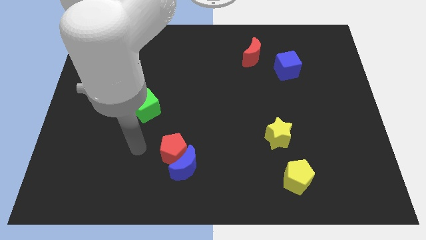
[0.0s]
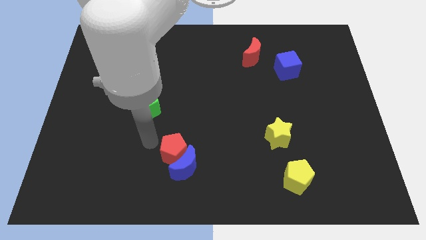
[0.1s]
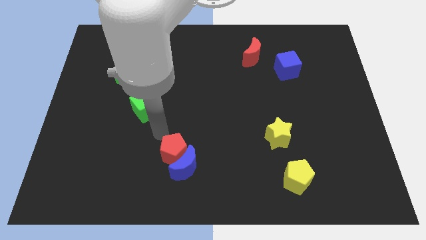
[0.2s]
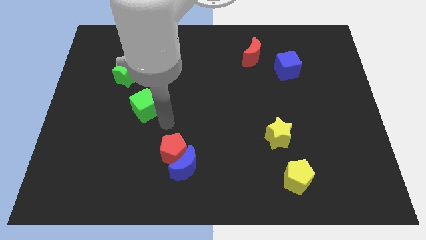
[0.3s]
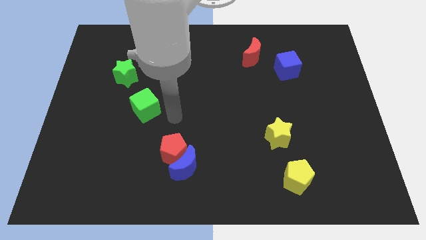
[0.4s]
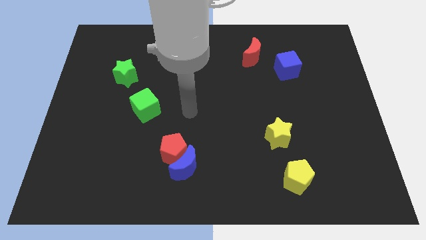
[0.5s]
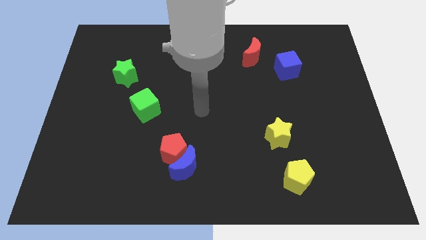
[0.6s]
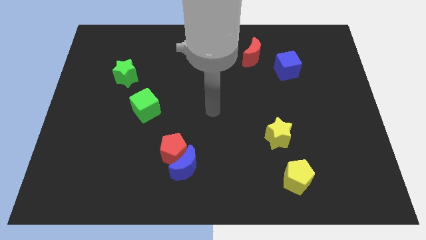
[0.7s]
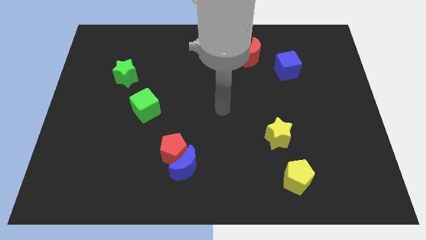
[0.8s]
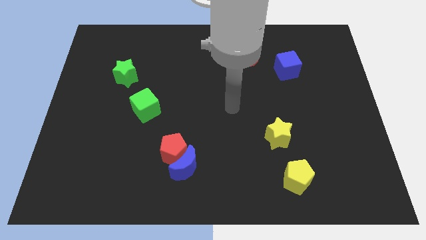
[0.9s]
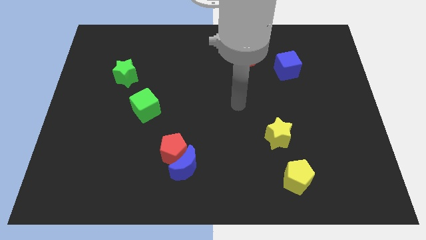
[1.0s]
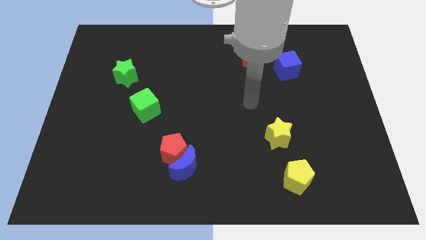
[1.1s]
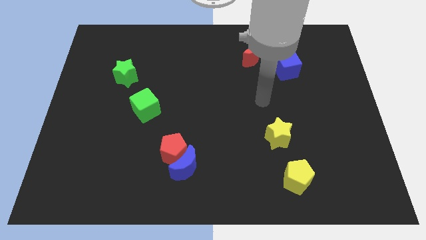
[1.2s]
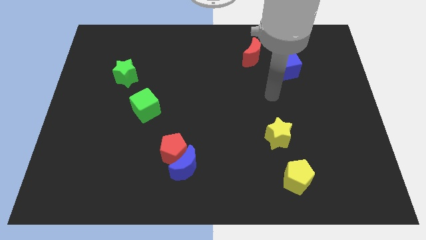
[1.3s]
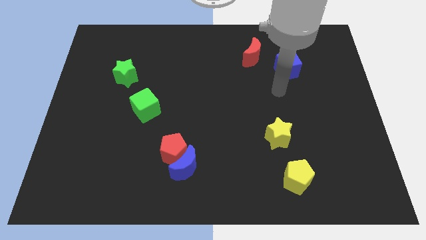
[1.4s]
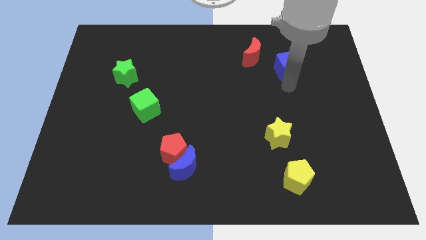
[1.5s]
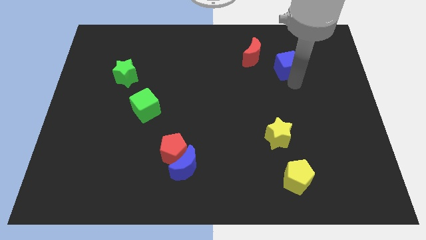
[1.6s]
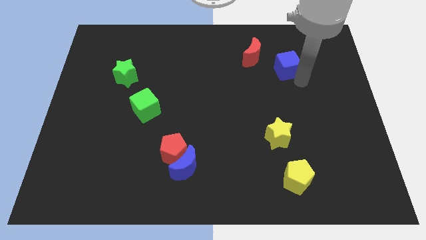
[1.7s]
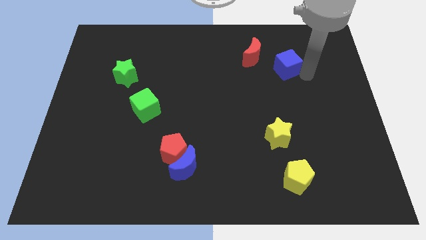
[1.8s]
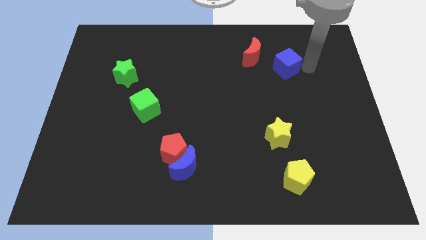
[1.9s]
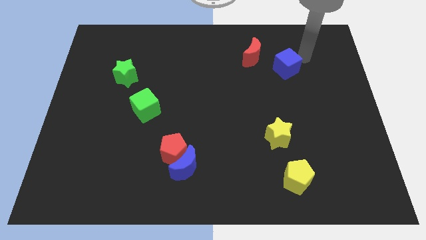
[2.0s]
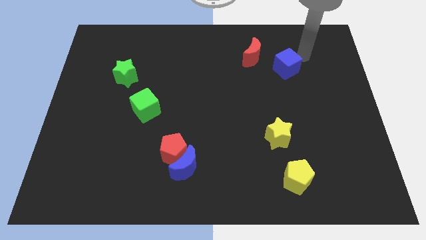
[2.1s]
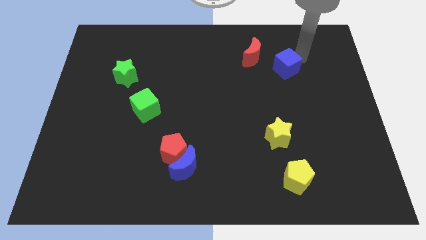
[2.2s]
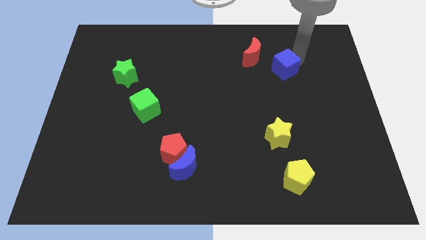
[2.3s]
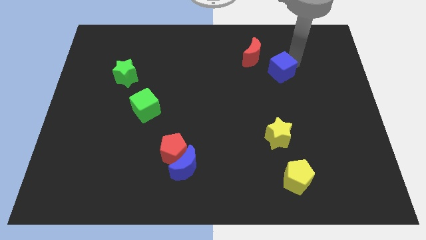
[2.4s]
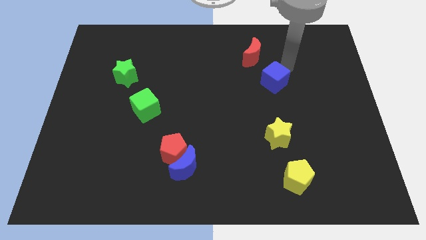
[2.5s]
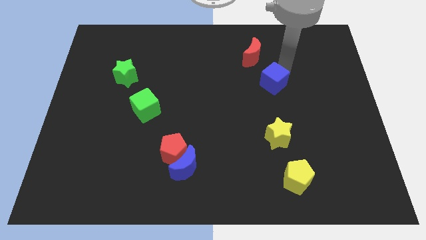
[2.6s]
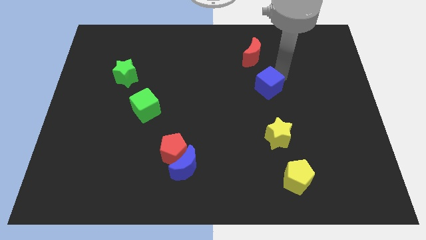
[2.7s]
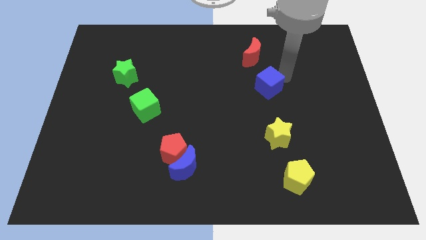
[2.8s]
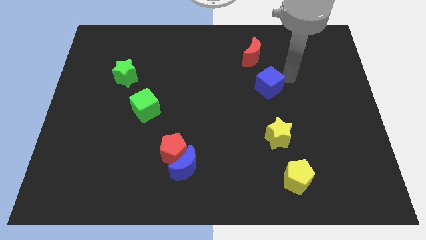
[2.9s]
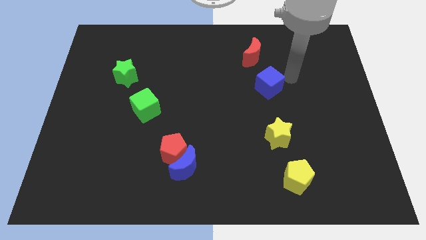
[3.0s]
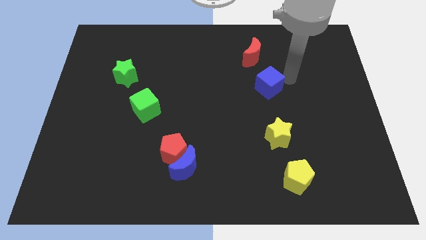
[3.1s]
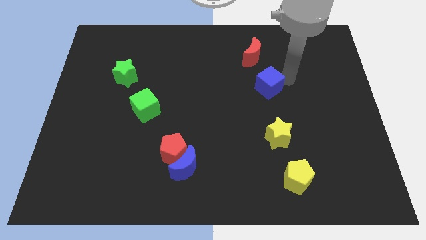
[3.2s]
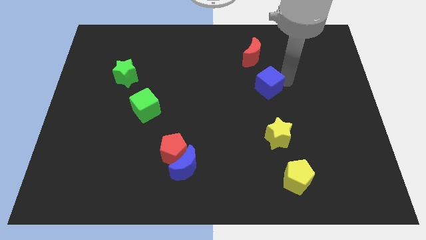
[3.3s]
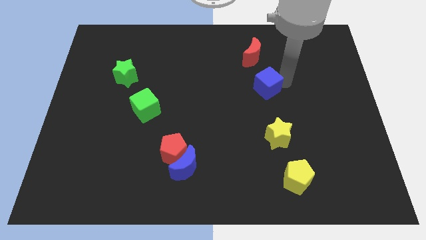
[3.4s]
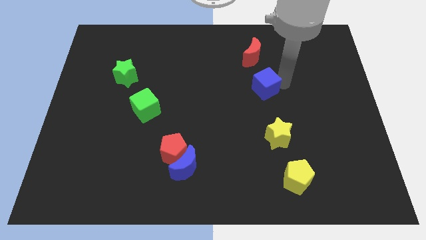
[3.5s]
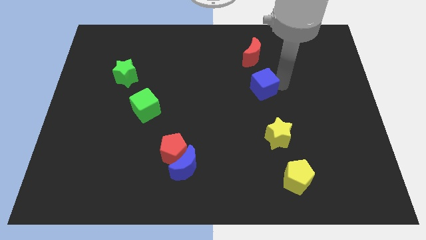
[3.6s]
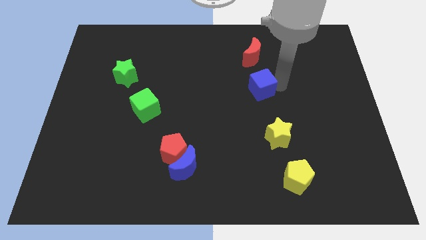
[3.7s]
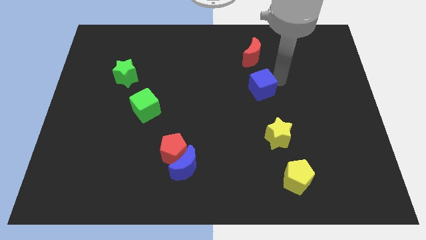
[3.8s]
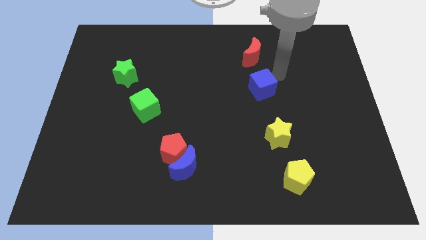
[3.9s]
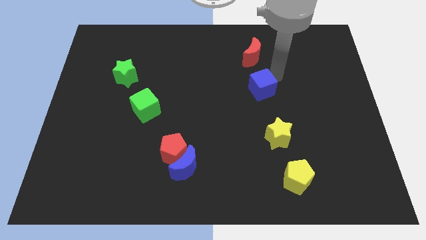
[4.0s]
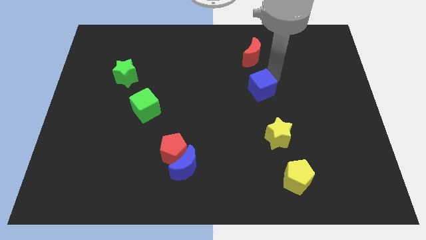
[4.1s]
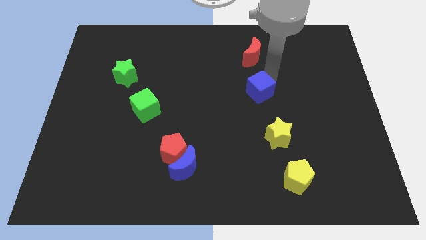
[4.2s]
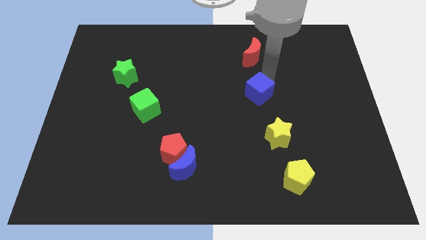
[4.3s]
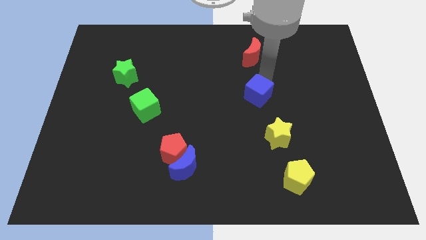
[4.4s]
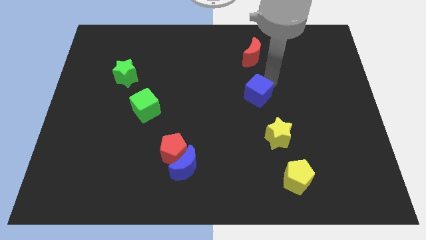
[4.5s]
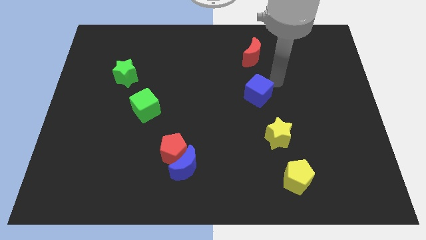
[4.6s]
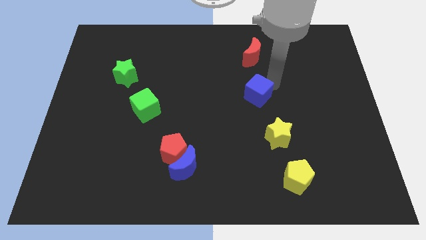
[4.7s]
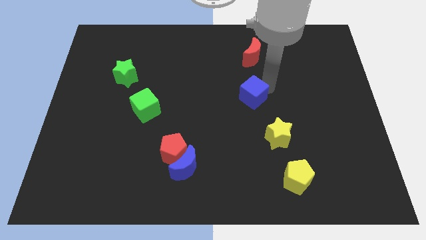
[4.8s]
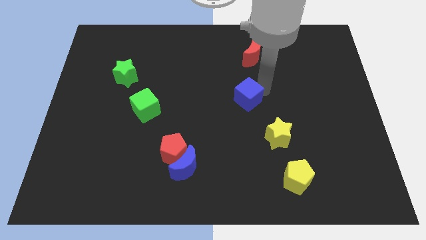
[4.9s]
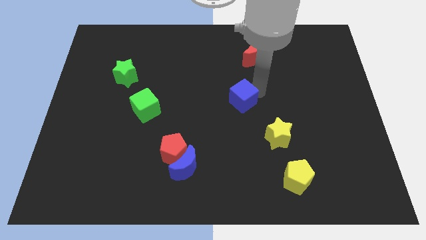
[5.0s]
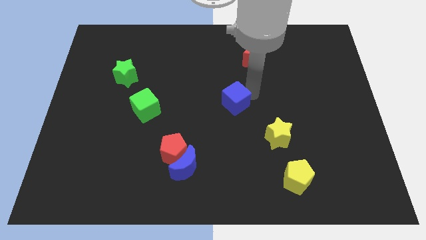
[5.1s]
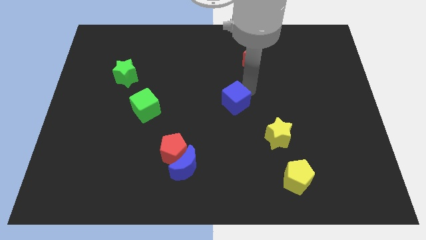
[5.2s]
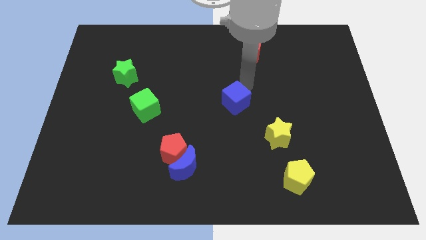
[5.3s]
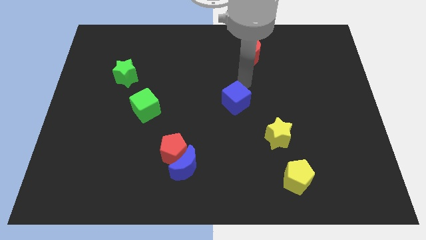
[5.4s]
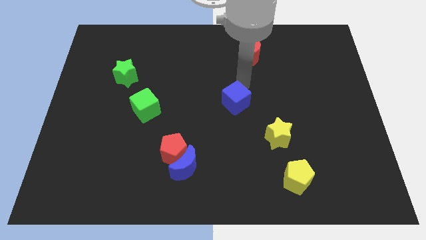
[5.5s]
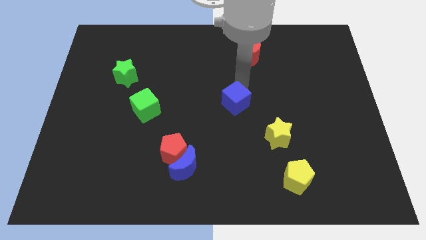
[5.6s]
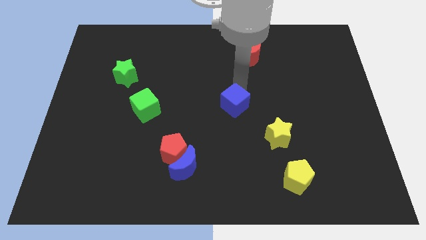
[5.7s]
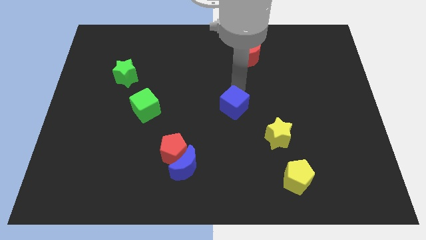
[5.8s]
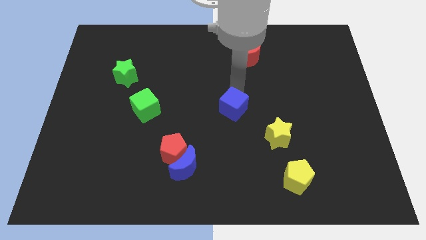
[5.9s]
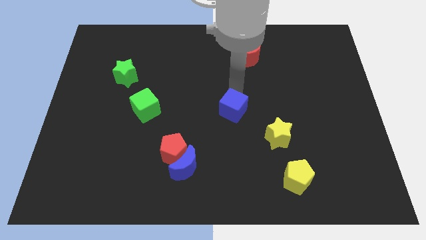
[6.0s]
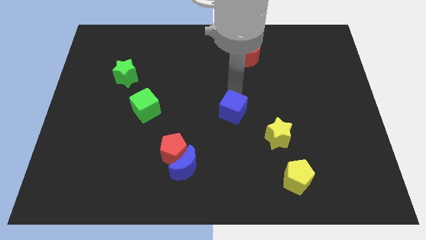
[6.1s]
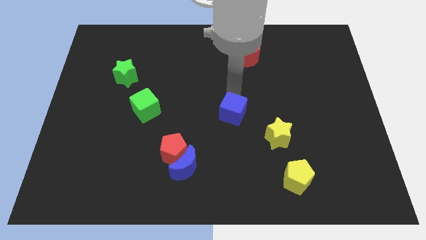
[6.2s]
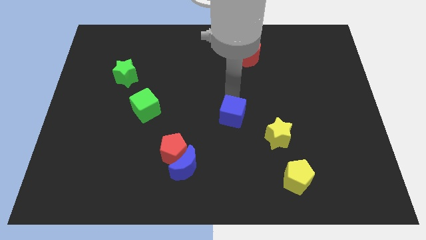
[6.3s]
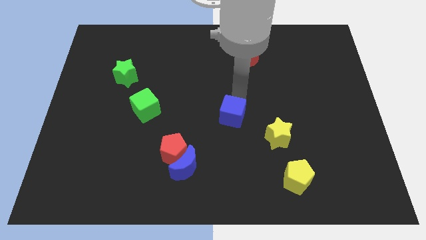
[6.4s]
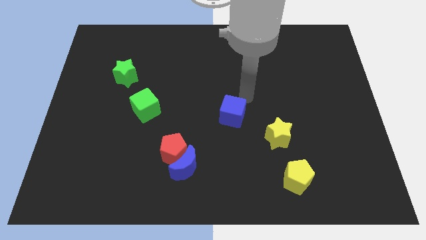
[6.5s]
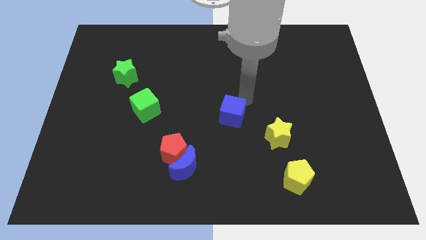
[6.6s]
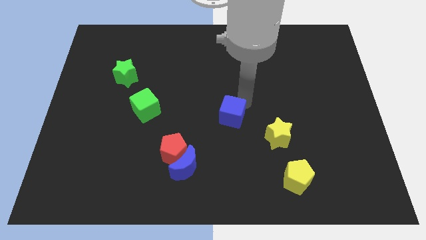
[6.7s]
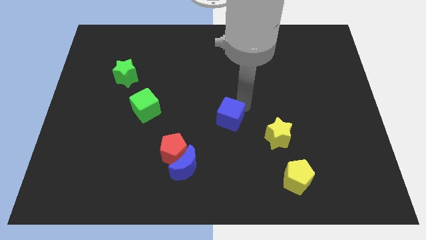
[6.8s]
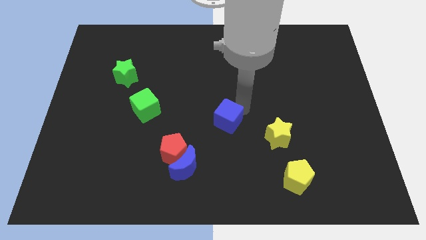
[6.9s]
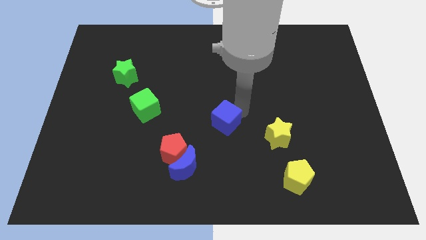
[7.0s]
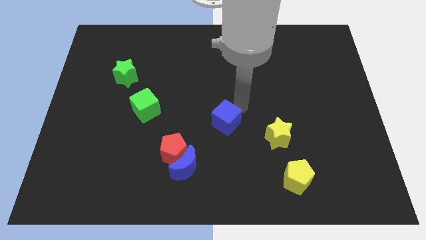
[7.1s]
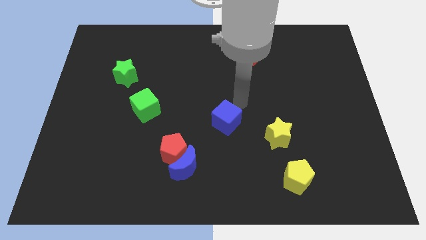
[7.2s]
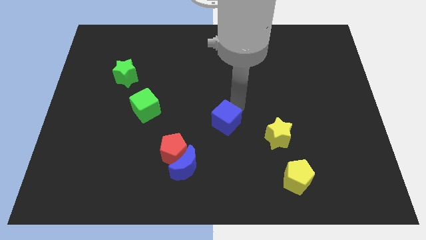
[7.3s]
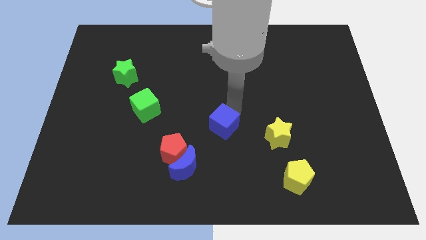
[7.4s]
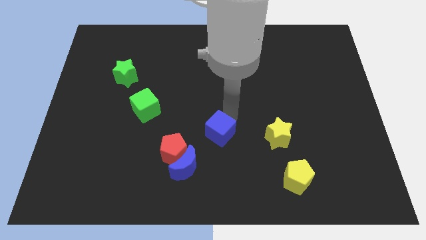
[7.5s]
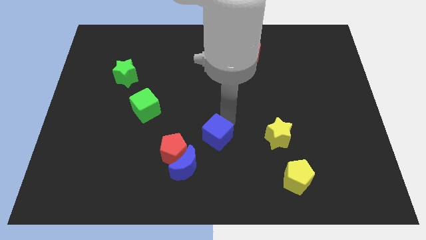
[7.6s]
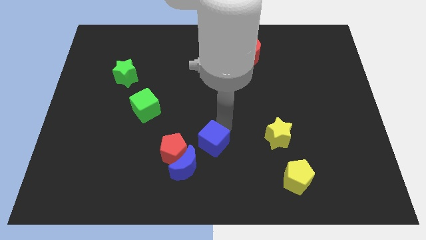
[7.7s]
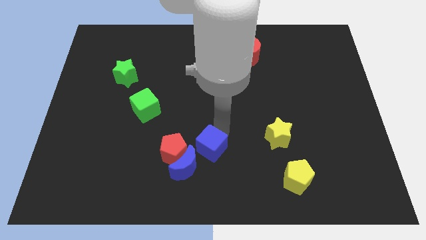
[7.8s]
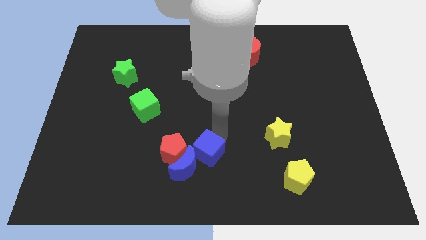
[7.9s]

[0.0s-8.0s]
put the blue cube next to the blue moon
